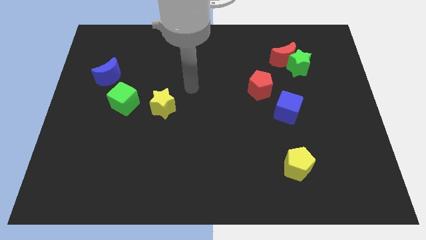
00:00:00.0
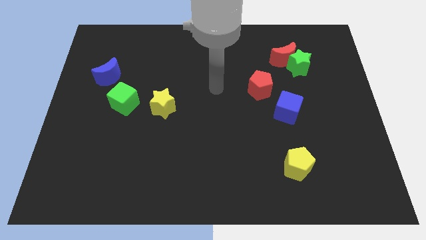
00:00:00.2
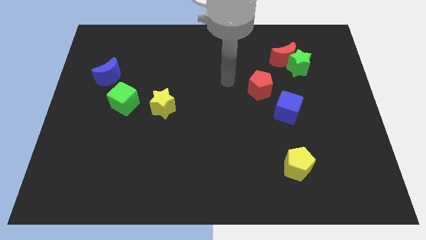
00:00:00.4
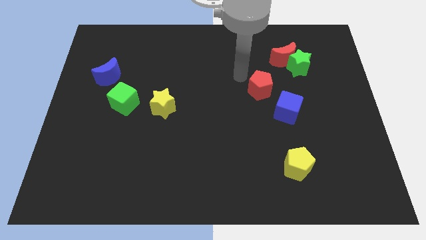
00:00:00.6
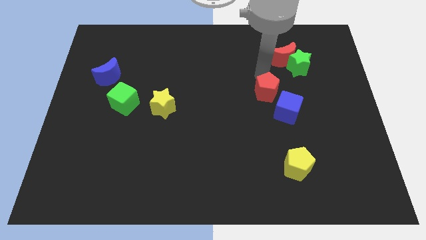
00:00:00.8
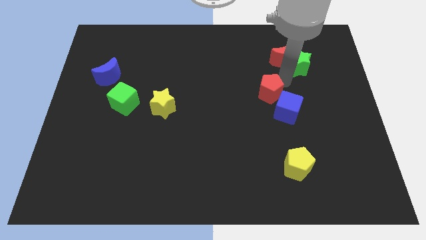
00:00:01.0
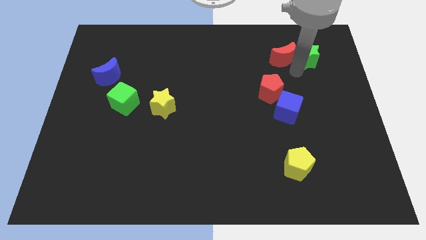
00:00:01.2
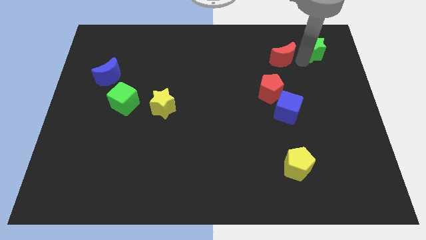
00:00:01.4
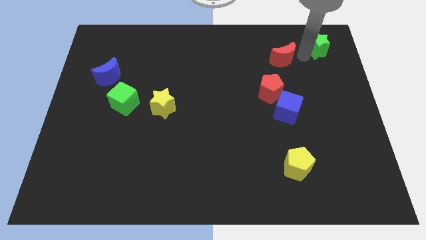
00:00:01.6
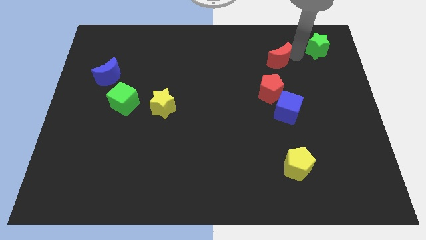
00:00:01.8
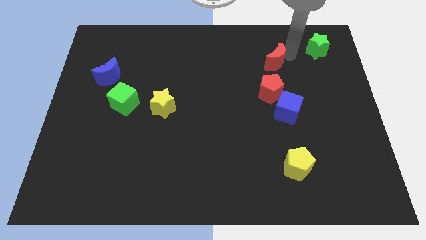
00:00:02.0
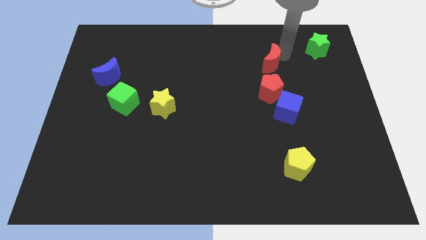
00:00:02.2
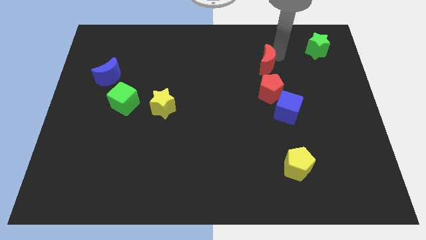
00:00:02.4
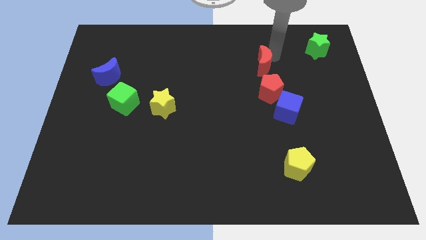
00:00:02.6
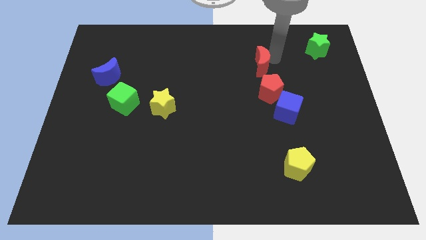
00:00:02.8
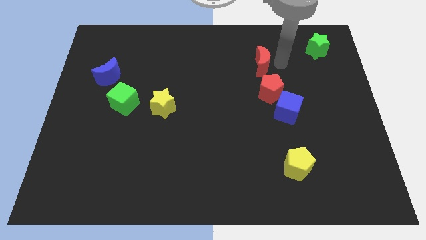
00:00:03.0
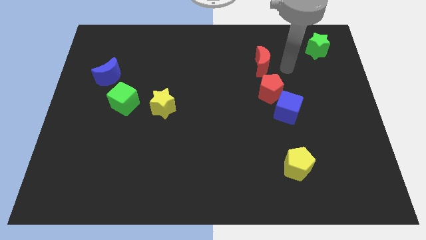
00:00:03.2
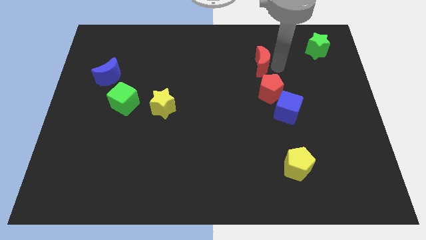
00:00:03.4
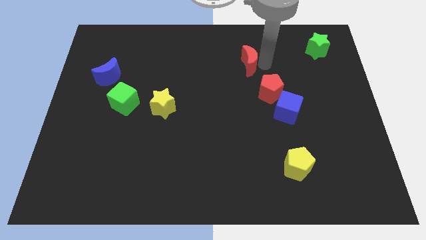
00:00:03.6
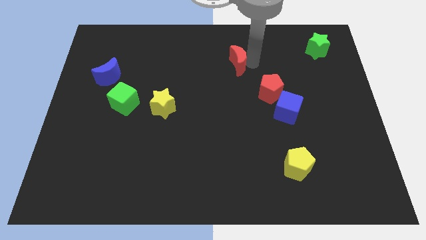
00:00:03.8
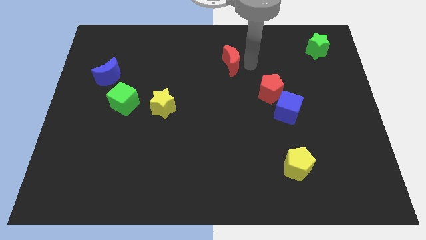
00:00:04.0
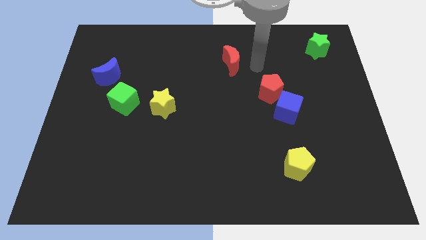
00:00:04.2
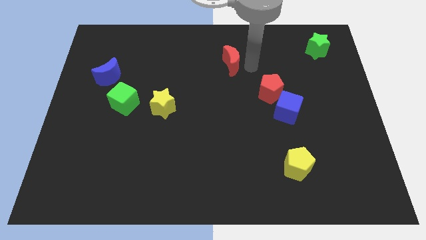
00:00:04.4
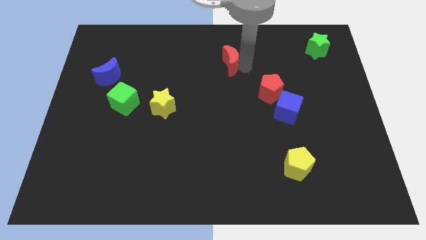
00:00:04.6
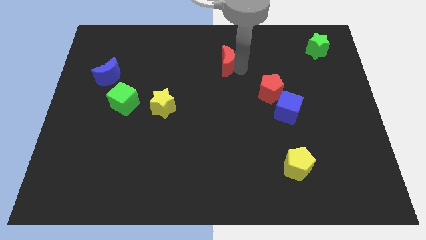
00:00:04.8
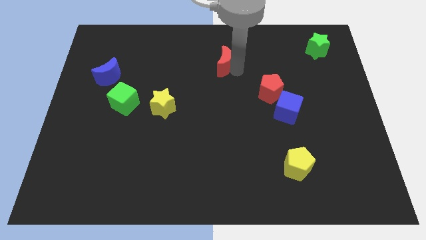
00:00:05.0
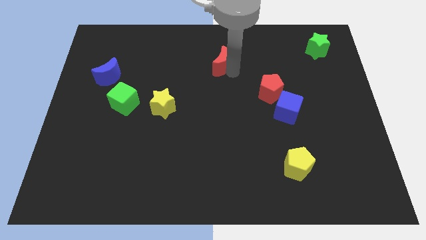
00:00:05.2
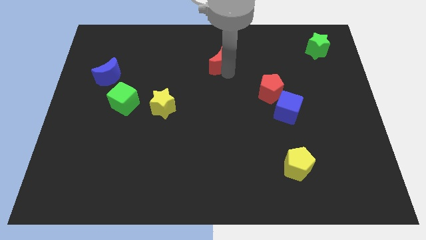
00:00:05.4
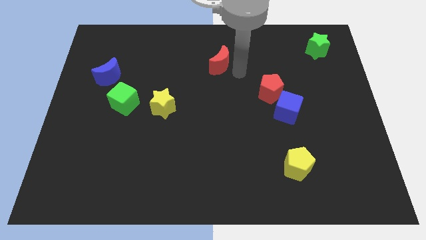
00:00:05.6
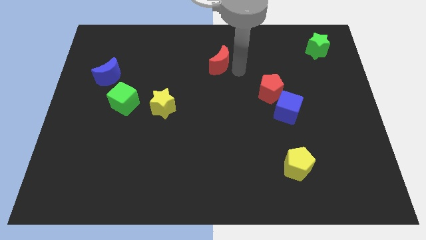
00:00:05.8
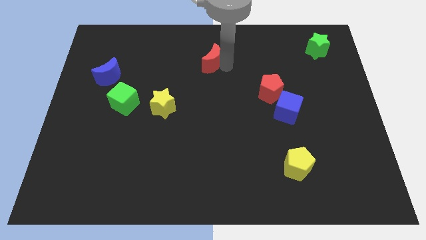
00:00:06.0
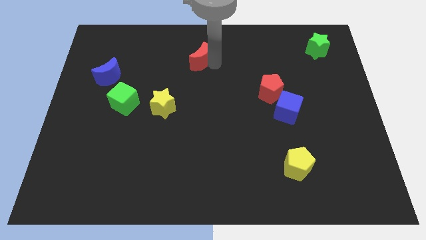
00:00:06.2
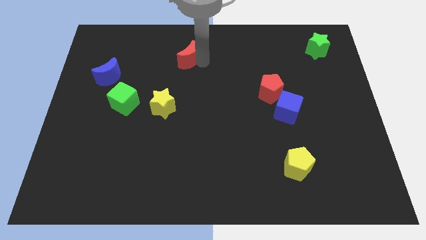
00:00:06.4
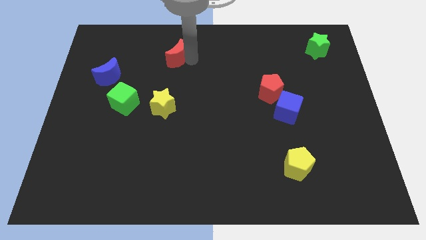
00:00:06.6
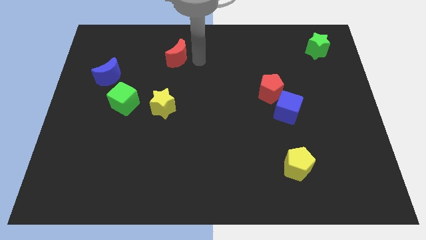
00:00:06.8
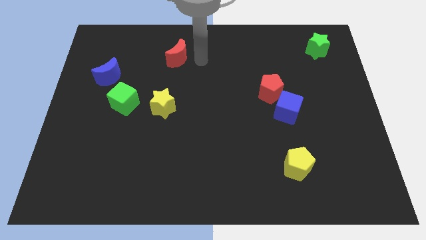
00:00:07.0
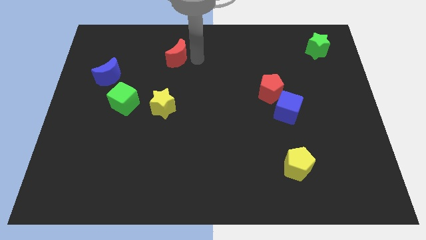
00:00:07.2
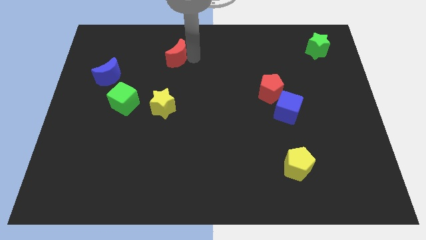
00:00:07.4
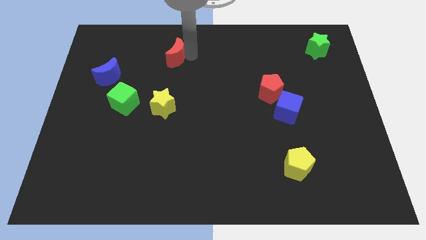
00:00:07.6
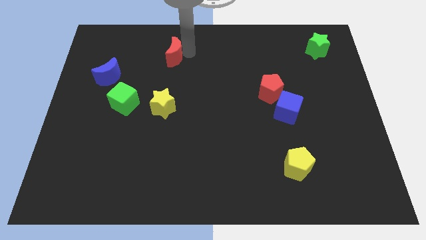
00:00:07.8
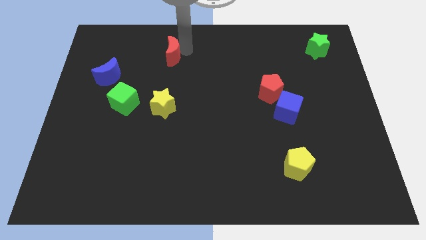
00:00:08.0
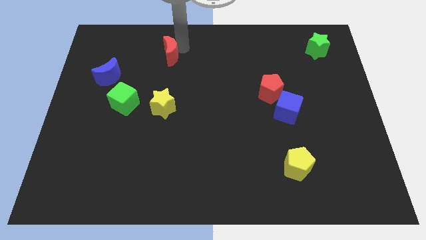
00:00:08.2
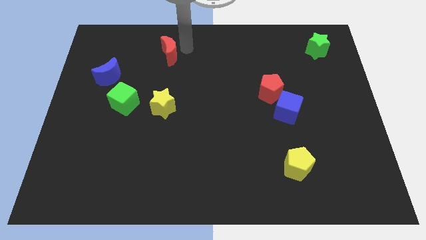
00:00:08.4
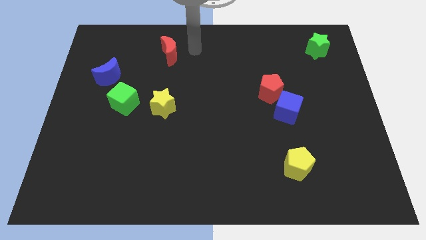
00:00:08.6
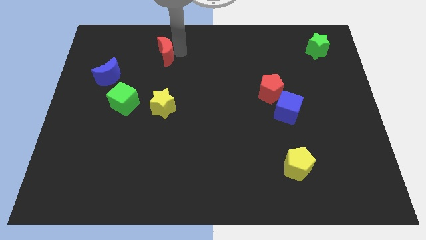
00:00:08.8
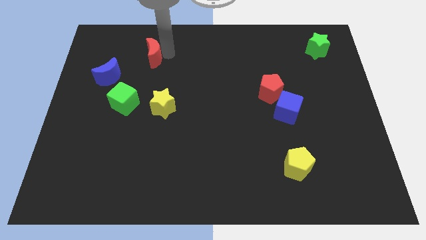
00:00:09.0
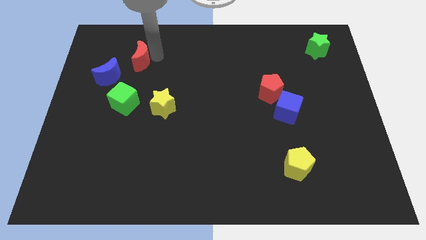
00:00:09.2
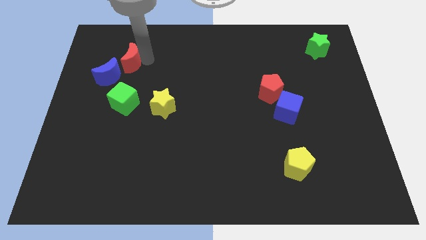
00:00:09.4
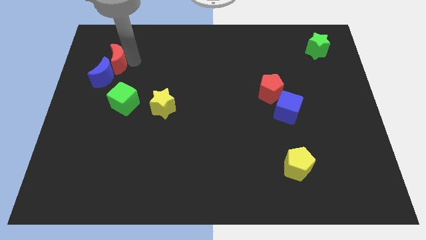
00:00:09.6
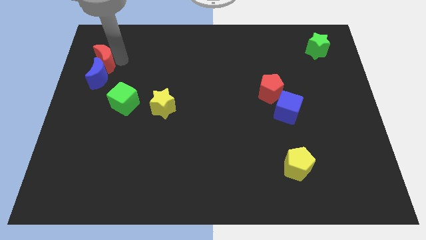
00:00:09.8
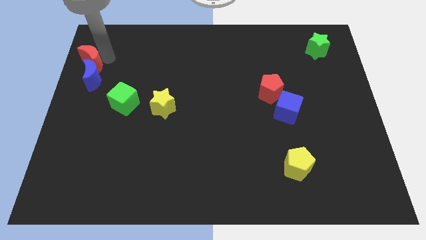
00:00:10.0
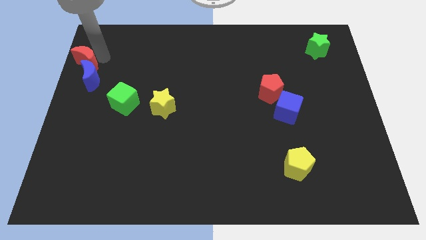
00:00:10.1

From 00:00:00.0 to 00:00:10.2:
put the red moon to the left side of the board

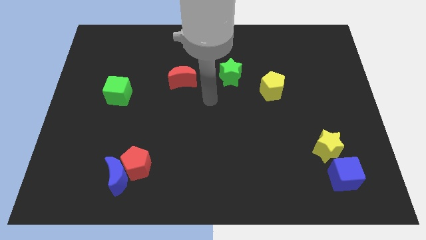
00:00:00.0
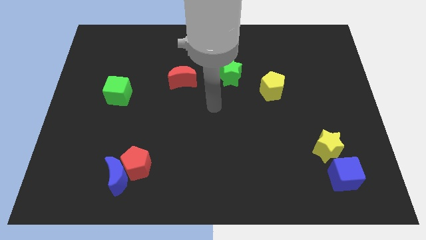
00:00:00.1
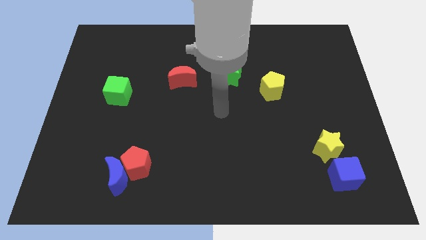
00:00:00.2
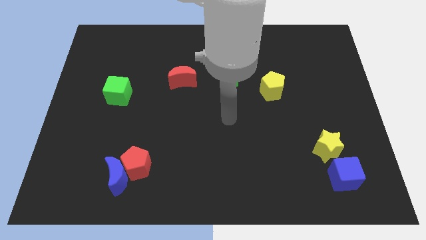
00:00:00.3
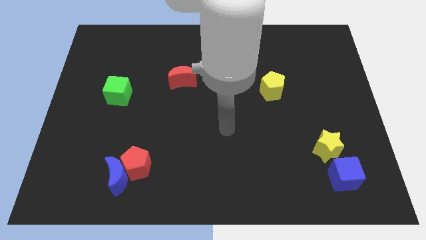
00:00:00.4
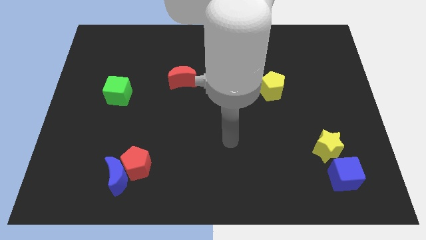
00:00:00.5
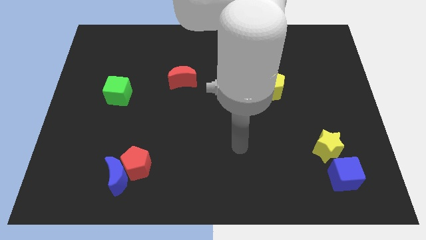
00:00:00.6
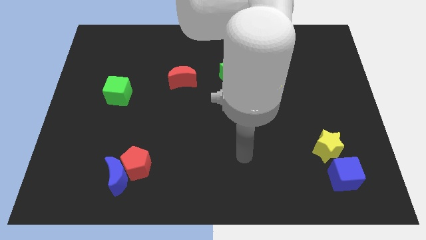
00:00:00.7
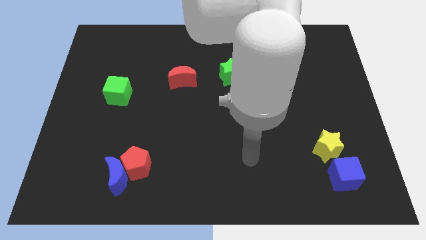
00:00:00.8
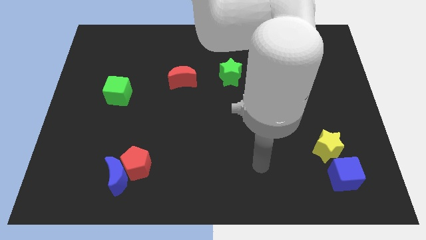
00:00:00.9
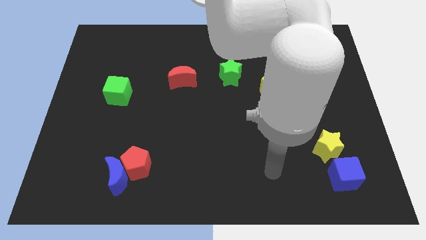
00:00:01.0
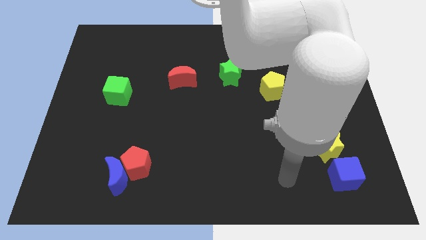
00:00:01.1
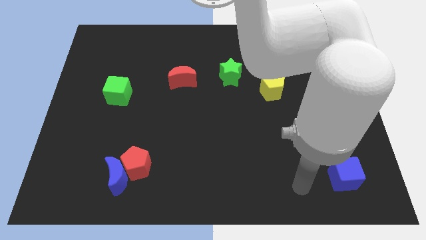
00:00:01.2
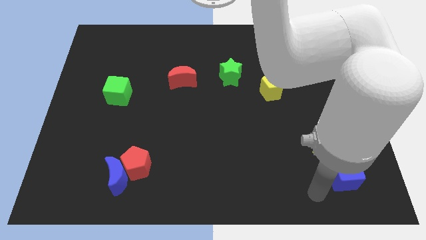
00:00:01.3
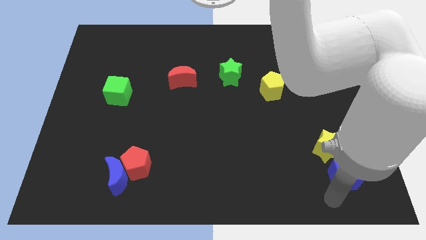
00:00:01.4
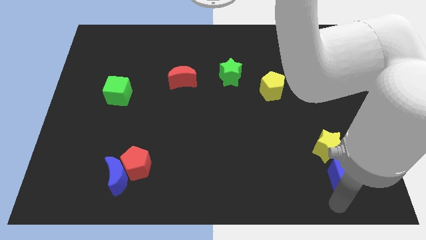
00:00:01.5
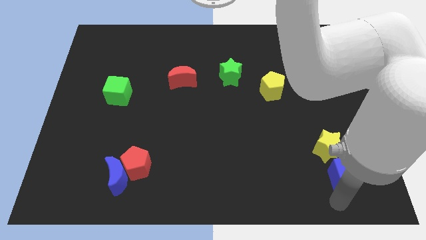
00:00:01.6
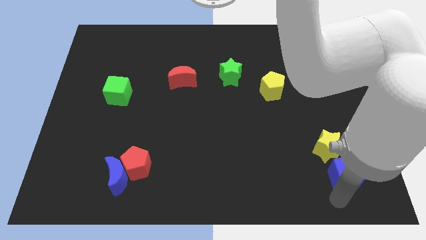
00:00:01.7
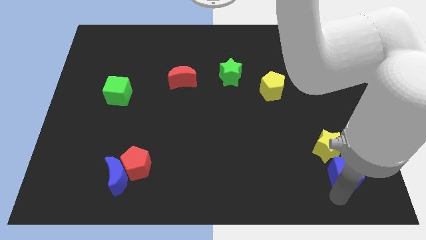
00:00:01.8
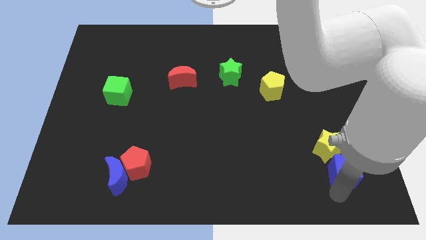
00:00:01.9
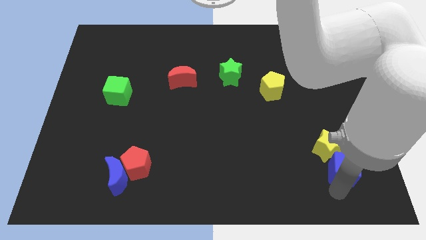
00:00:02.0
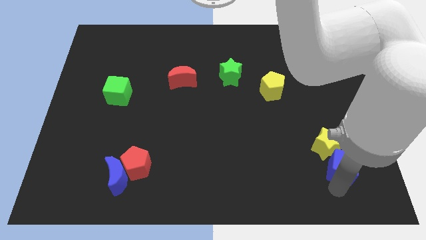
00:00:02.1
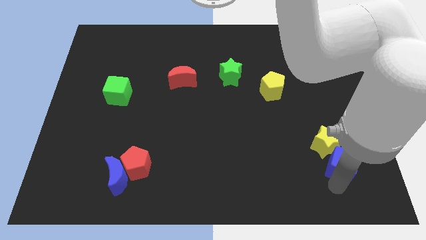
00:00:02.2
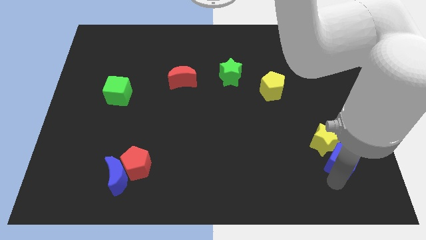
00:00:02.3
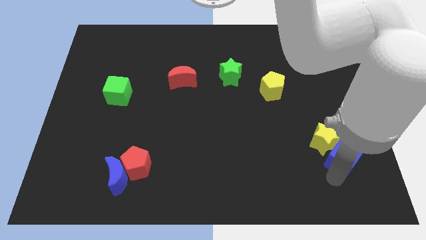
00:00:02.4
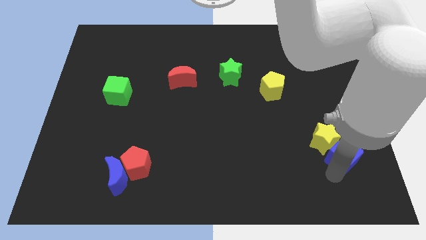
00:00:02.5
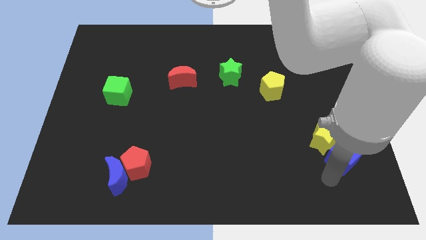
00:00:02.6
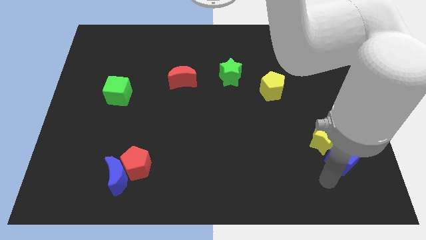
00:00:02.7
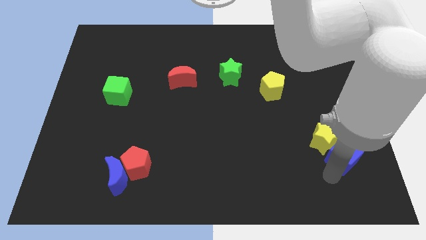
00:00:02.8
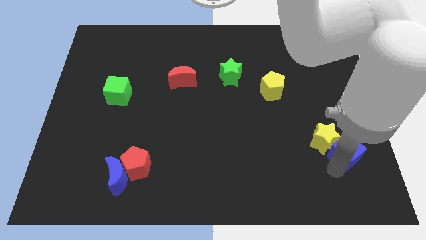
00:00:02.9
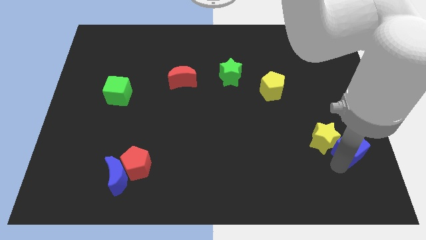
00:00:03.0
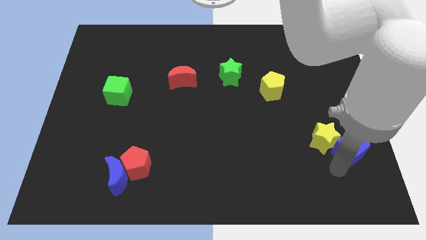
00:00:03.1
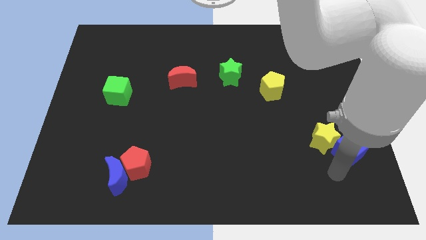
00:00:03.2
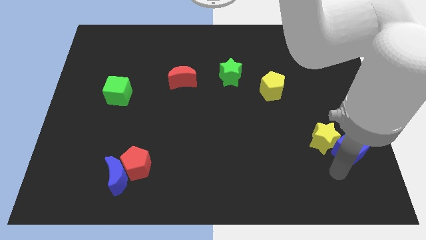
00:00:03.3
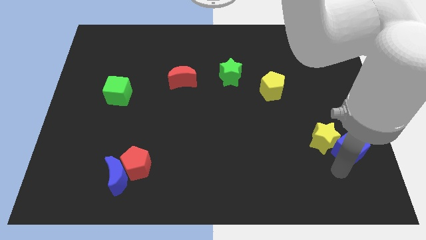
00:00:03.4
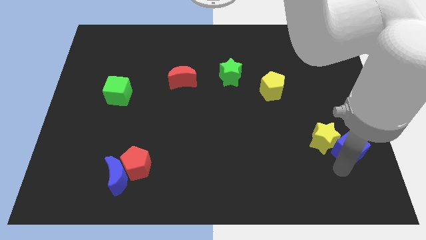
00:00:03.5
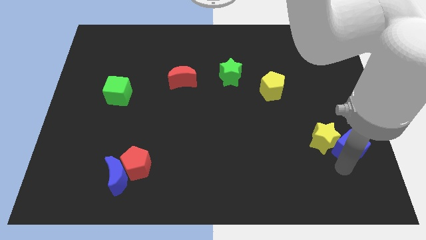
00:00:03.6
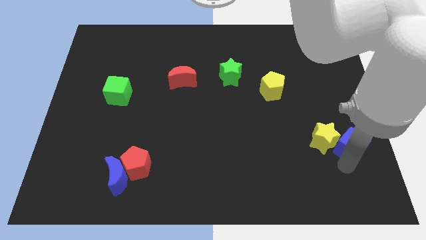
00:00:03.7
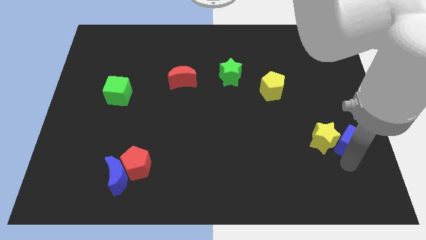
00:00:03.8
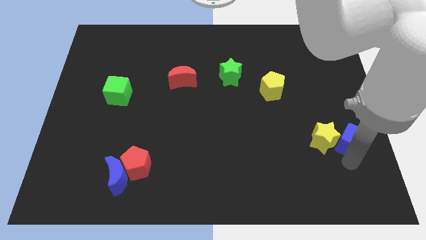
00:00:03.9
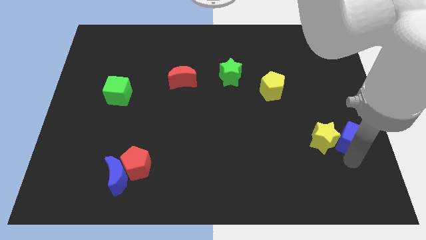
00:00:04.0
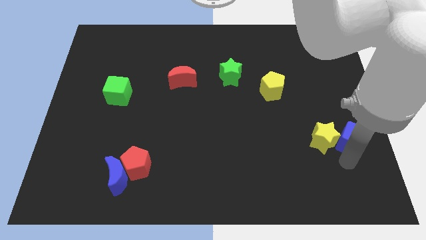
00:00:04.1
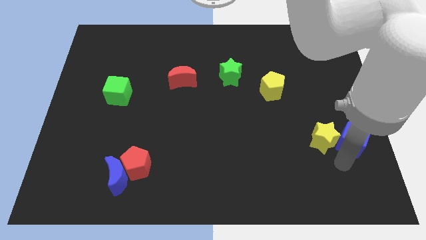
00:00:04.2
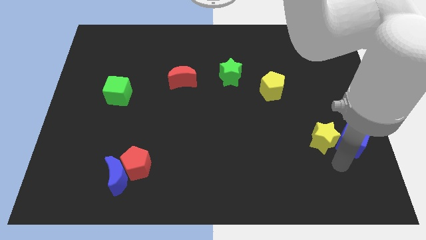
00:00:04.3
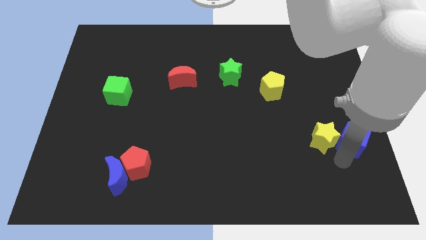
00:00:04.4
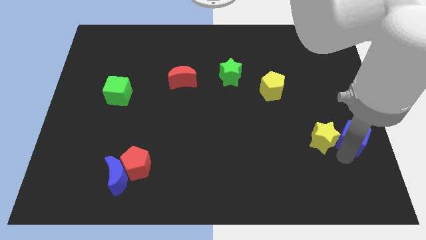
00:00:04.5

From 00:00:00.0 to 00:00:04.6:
slide the blue cube to the right side of the board
